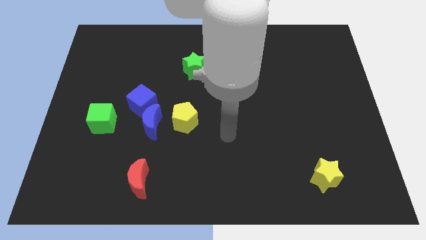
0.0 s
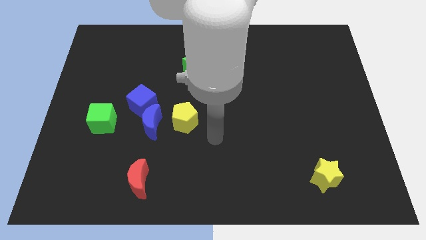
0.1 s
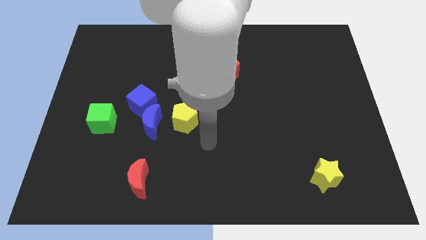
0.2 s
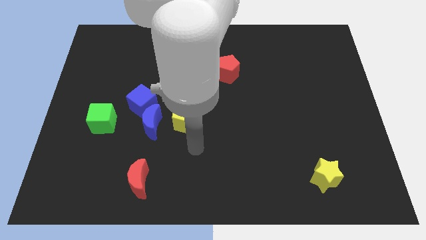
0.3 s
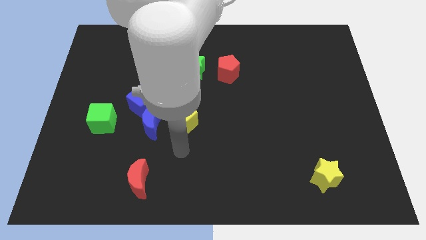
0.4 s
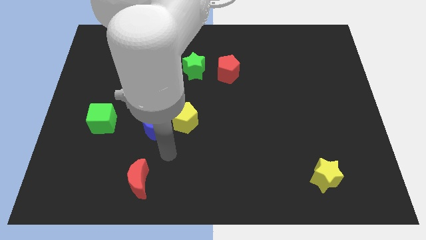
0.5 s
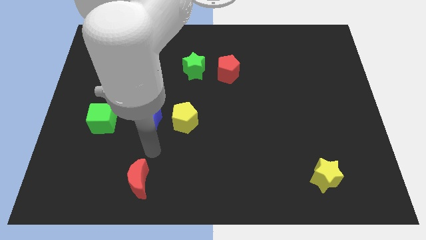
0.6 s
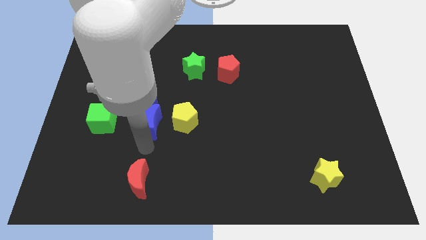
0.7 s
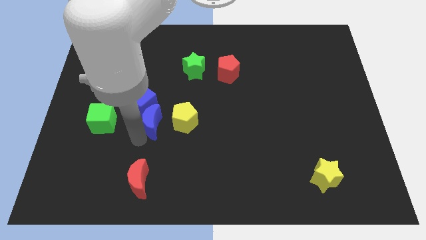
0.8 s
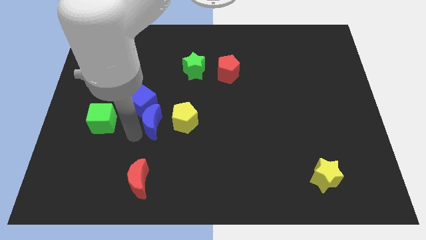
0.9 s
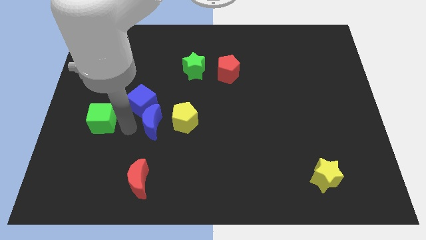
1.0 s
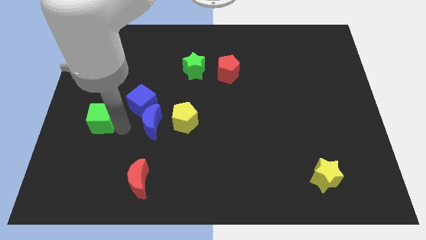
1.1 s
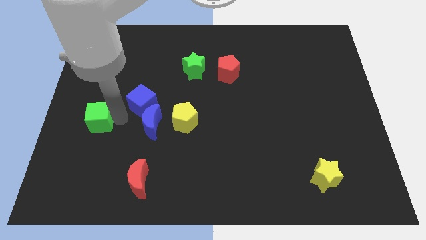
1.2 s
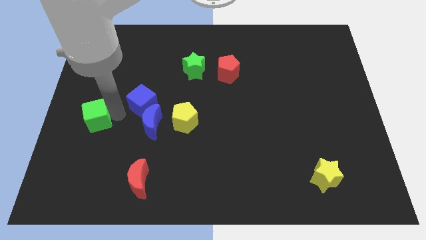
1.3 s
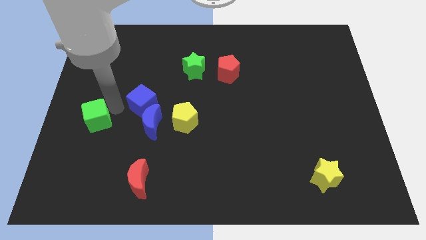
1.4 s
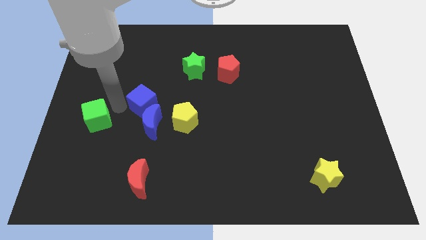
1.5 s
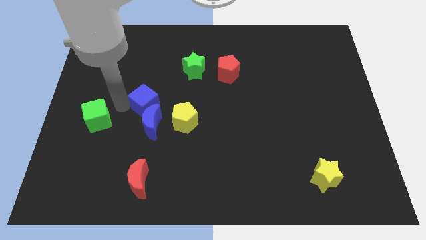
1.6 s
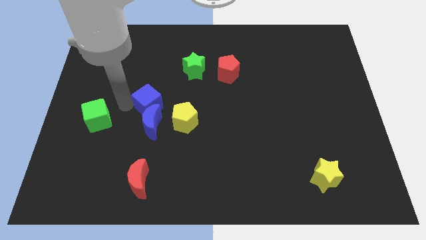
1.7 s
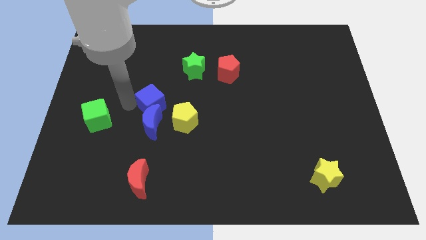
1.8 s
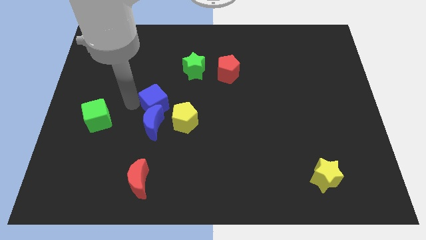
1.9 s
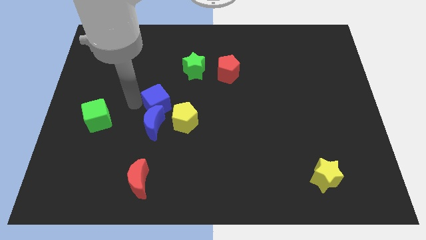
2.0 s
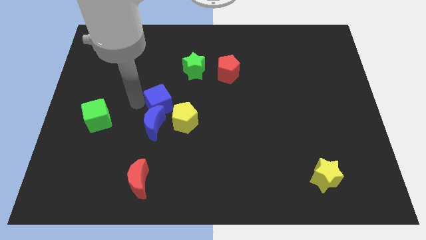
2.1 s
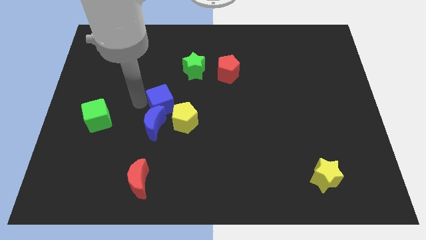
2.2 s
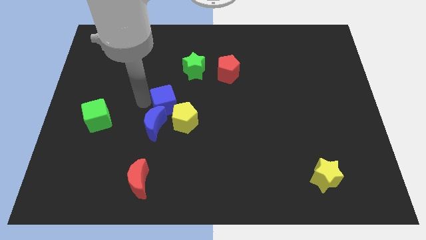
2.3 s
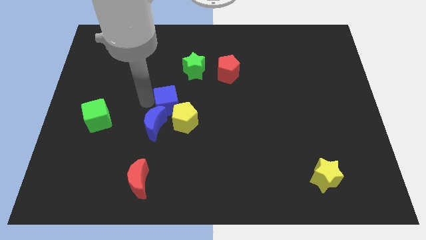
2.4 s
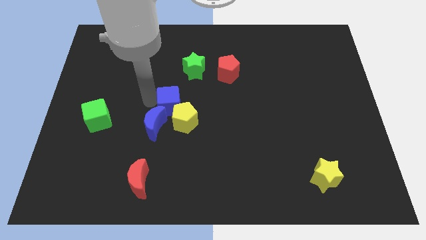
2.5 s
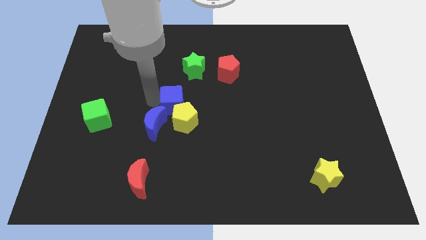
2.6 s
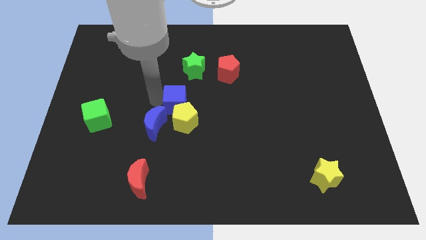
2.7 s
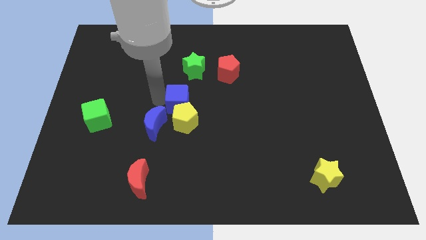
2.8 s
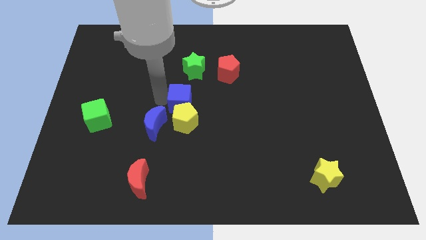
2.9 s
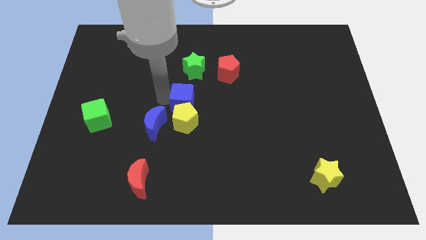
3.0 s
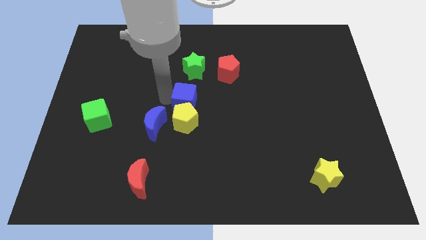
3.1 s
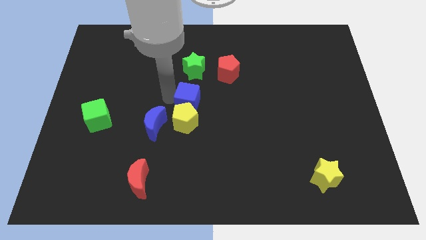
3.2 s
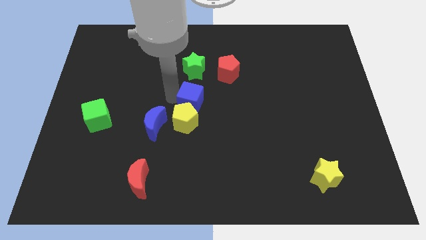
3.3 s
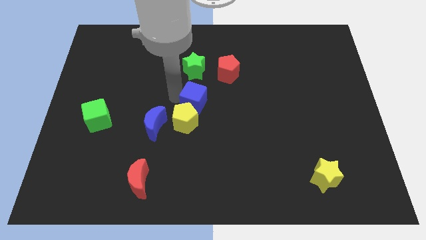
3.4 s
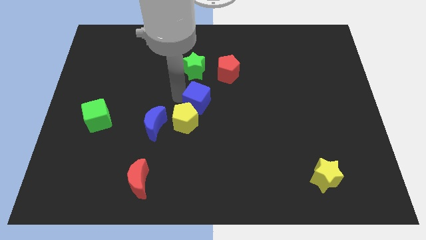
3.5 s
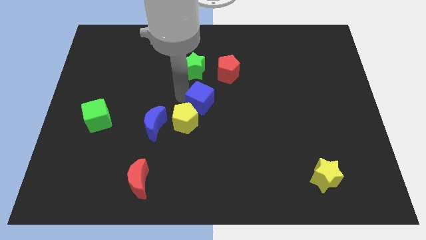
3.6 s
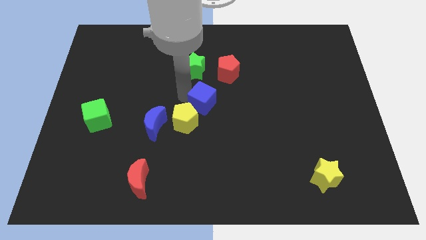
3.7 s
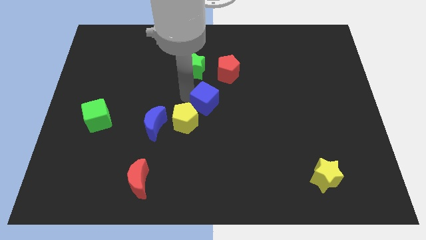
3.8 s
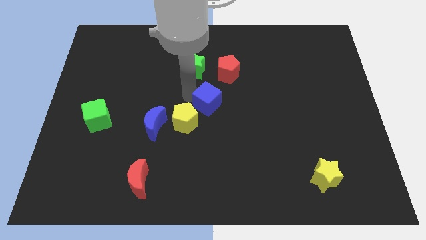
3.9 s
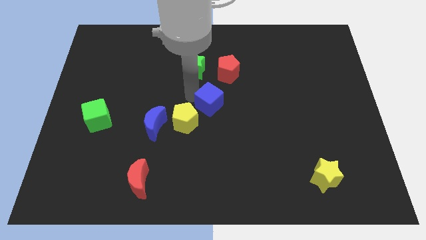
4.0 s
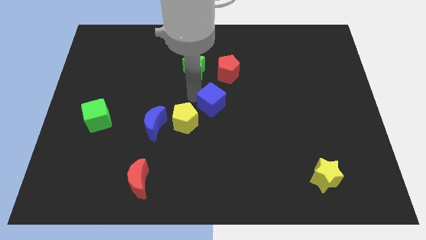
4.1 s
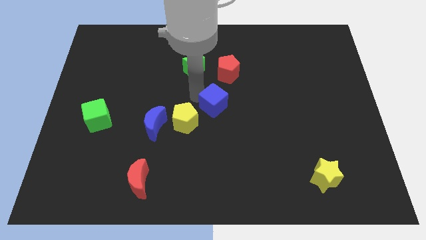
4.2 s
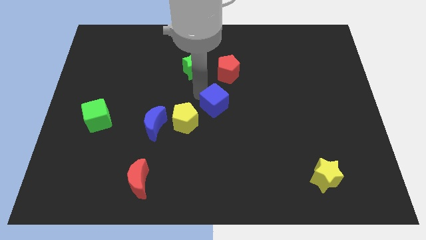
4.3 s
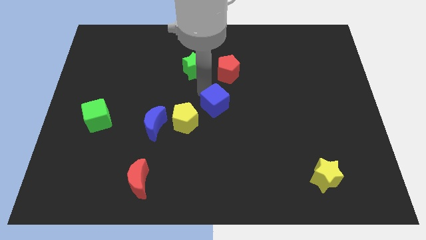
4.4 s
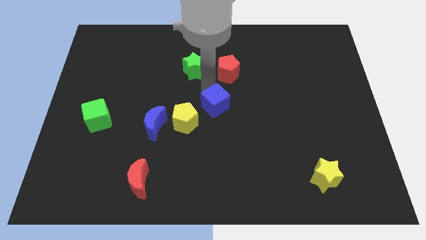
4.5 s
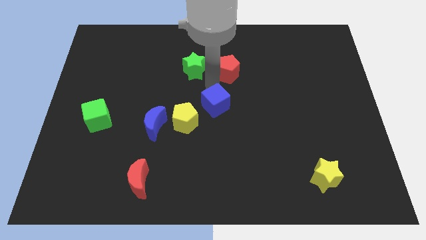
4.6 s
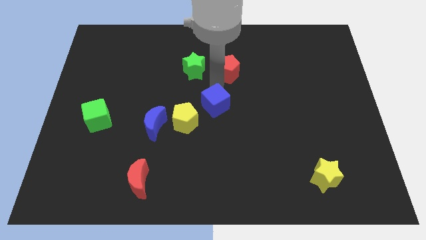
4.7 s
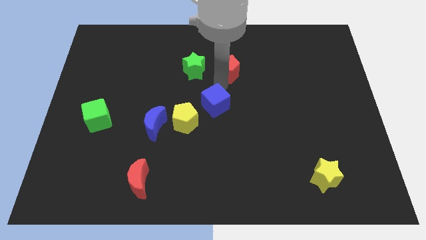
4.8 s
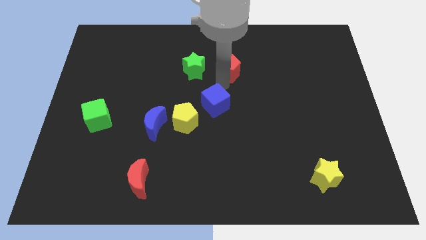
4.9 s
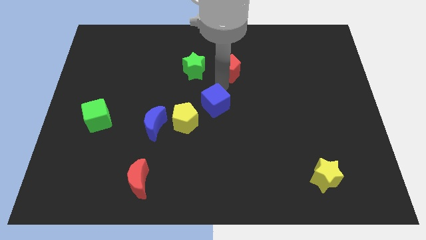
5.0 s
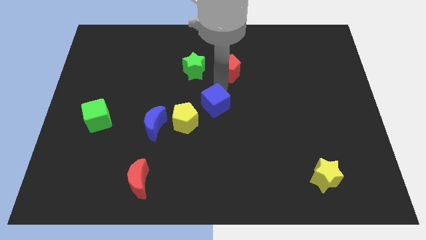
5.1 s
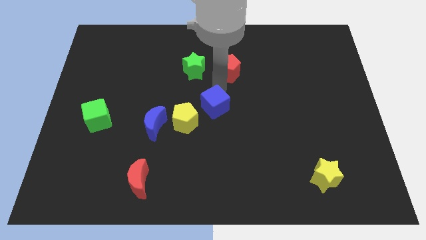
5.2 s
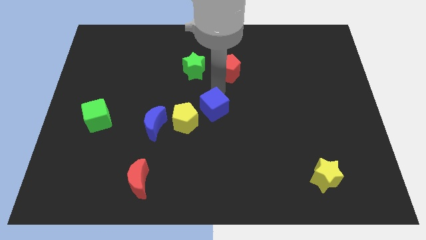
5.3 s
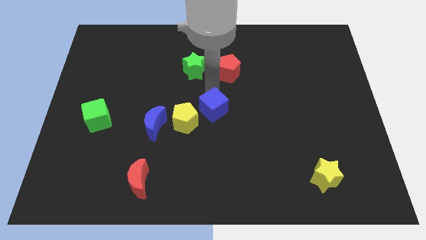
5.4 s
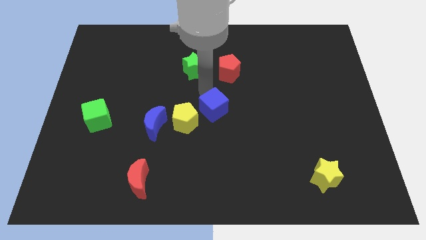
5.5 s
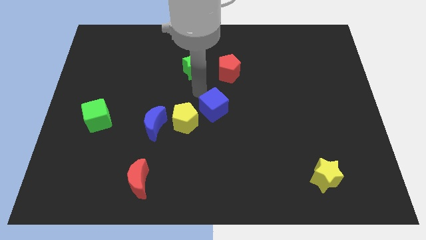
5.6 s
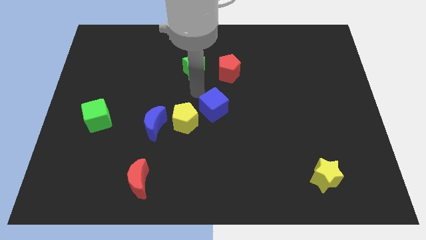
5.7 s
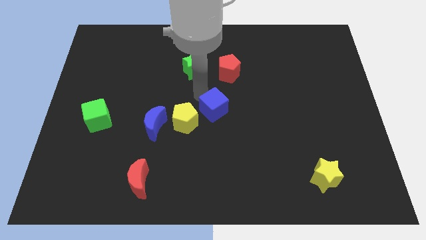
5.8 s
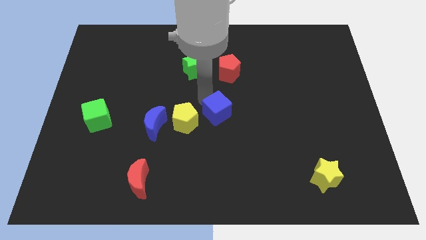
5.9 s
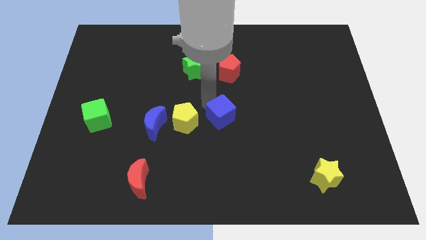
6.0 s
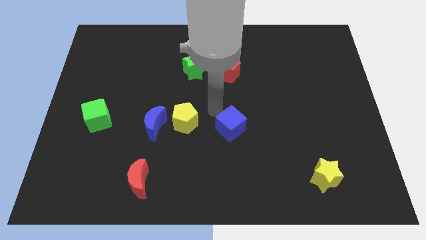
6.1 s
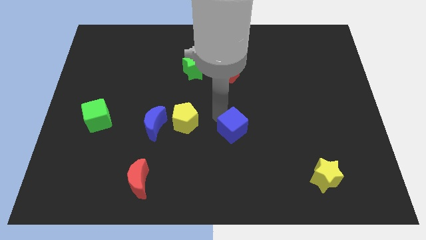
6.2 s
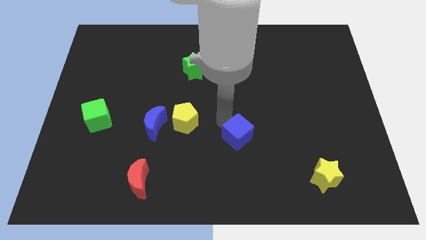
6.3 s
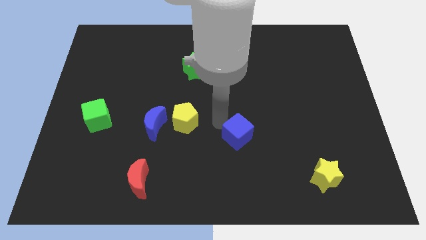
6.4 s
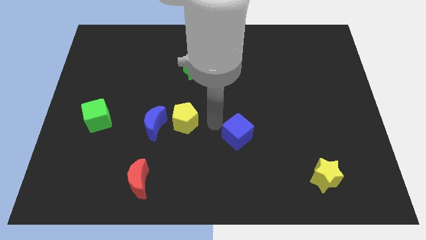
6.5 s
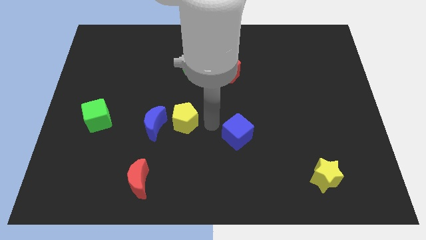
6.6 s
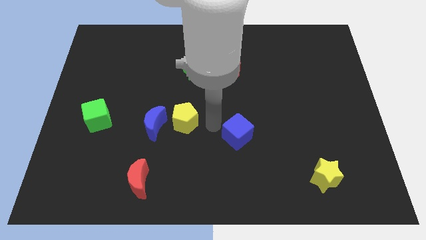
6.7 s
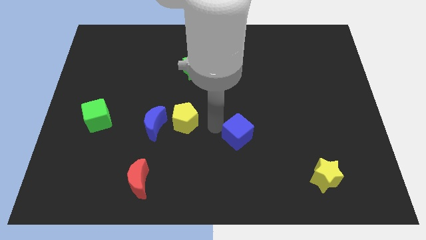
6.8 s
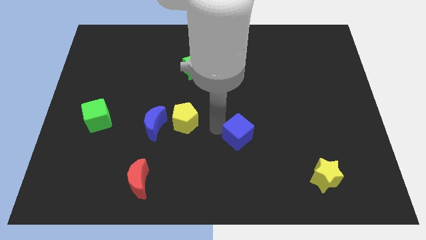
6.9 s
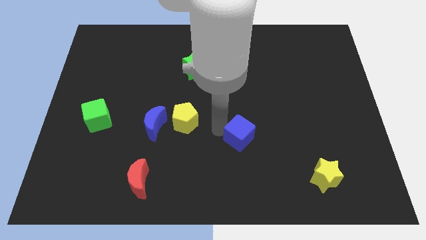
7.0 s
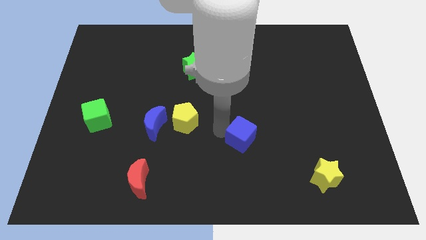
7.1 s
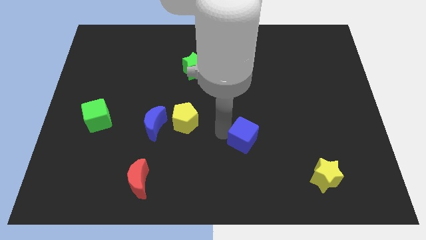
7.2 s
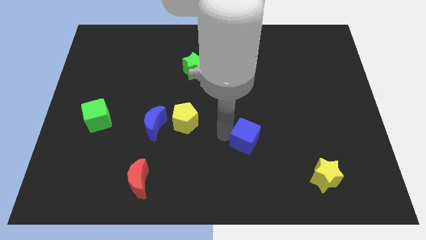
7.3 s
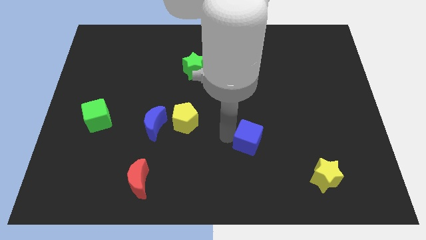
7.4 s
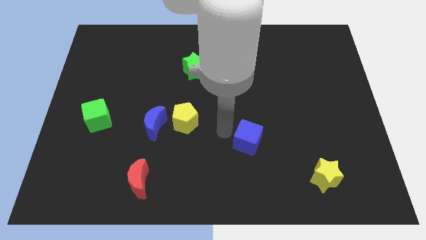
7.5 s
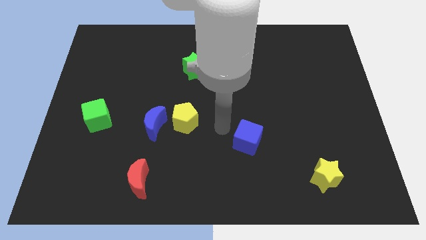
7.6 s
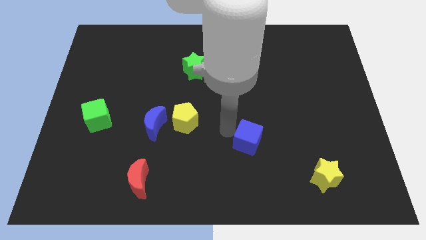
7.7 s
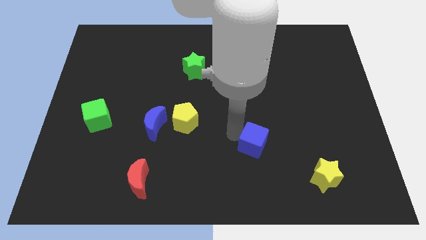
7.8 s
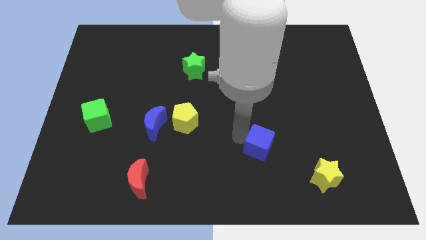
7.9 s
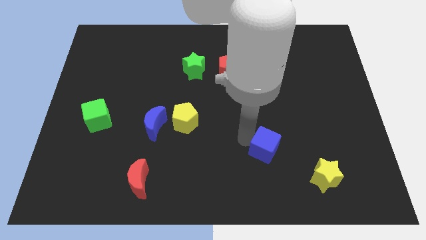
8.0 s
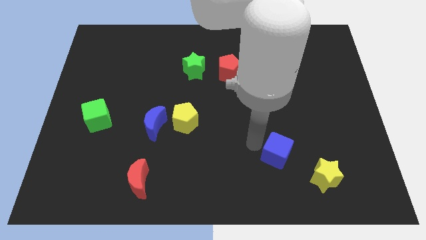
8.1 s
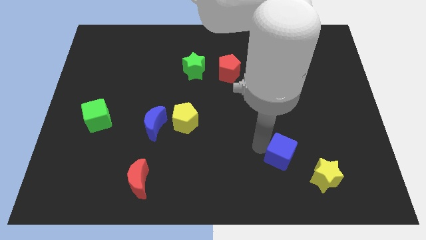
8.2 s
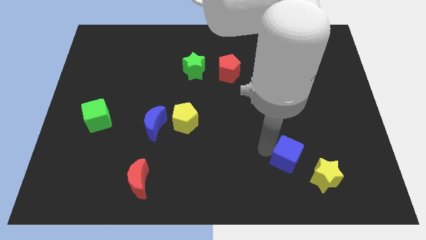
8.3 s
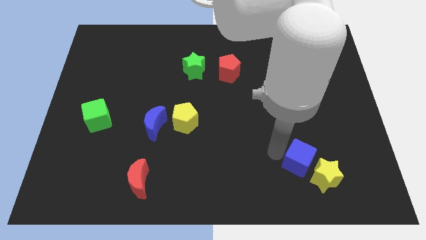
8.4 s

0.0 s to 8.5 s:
push the blue cube to the yellow star
